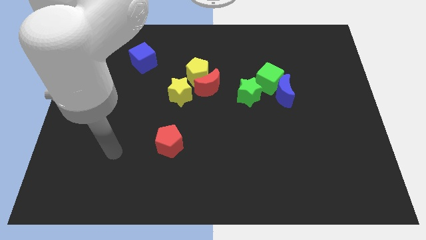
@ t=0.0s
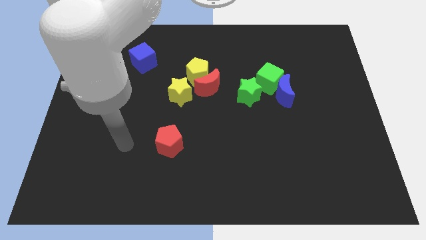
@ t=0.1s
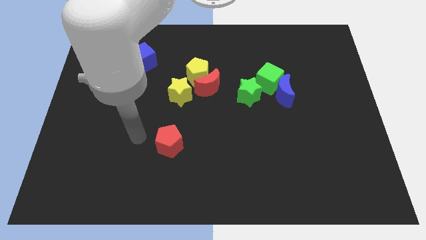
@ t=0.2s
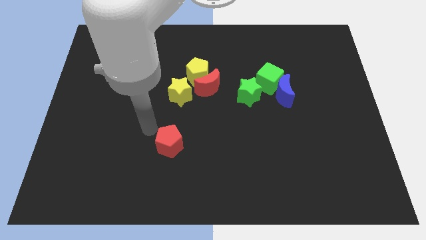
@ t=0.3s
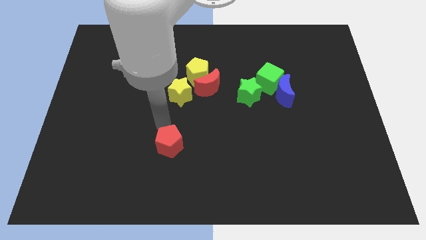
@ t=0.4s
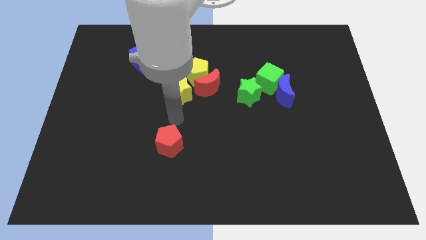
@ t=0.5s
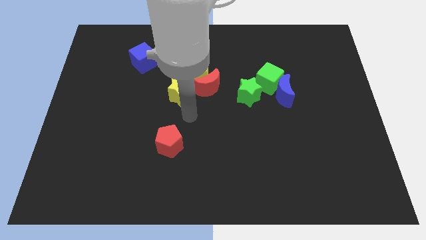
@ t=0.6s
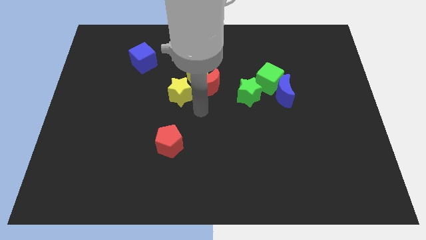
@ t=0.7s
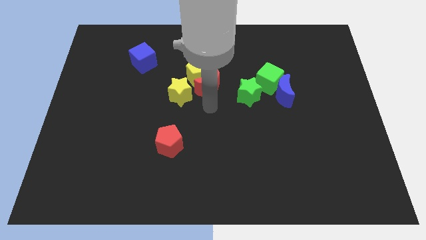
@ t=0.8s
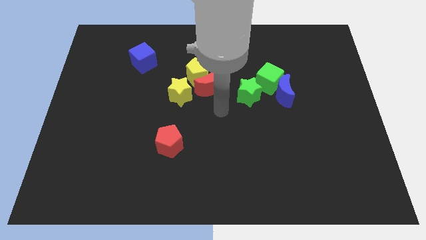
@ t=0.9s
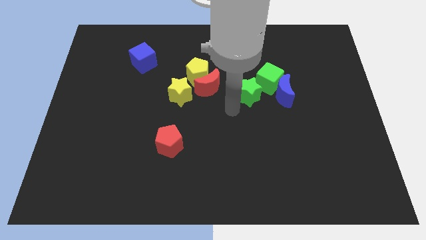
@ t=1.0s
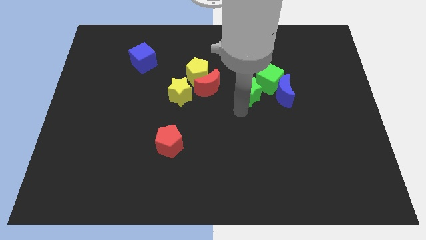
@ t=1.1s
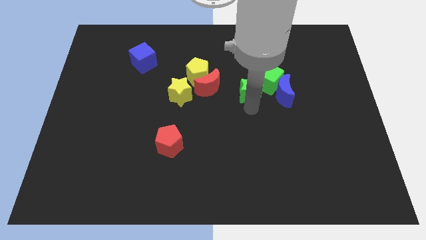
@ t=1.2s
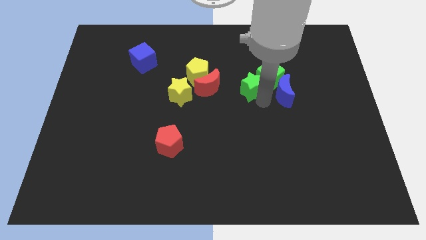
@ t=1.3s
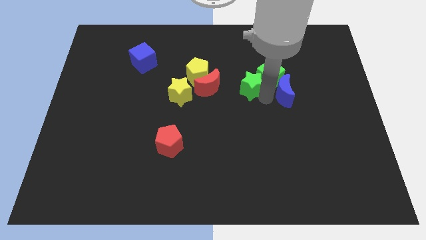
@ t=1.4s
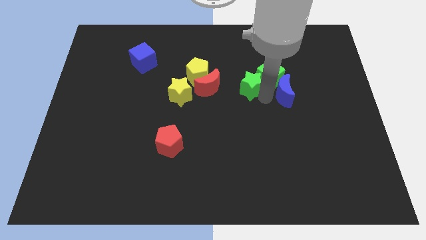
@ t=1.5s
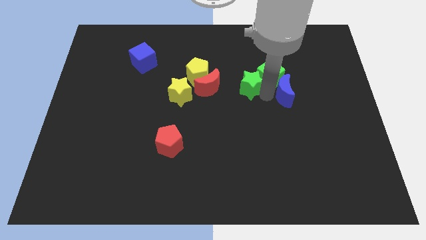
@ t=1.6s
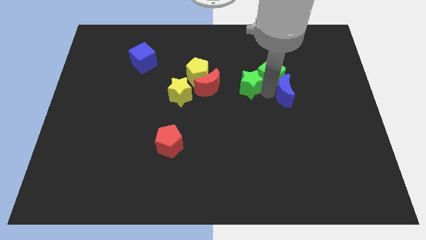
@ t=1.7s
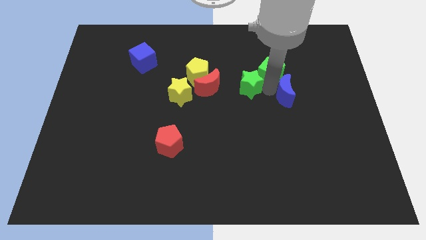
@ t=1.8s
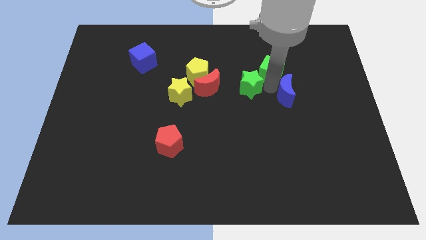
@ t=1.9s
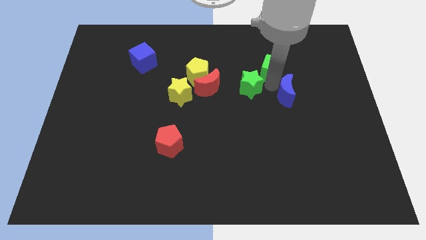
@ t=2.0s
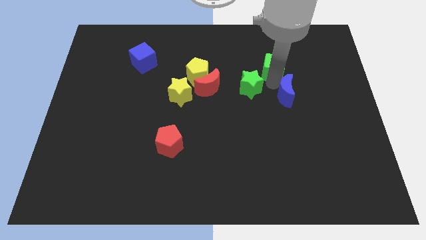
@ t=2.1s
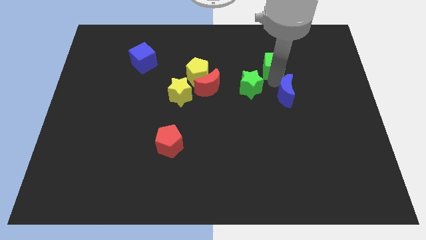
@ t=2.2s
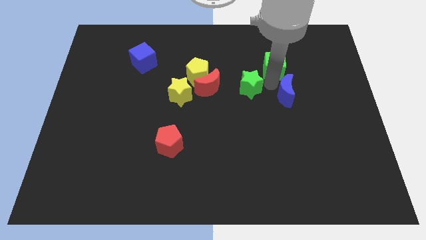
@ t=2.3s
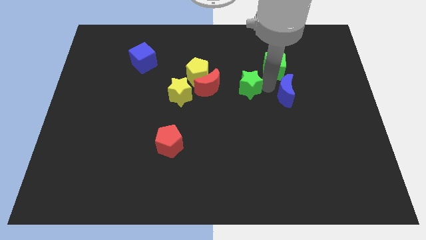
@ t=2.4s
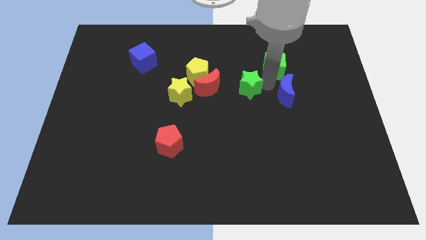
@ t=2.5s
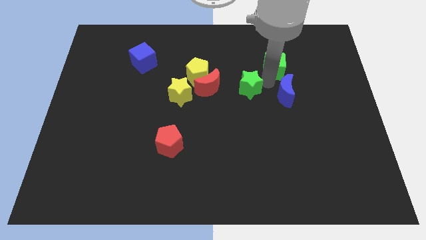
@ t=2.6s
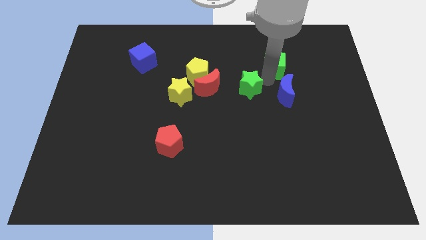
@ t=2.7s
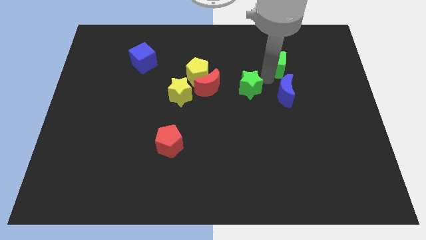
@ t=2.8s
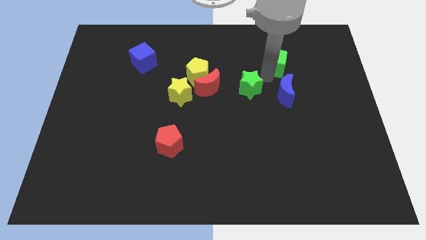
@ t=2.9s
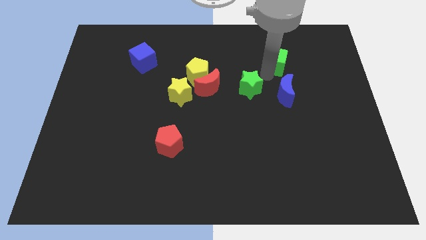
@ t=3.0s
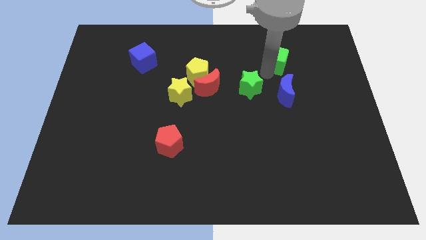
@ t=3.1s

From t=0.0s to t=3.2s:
pull the green cube apart from the blue moon and green star

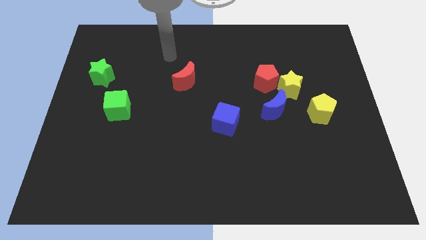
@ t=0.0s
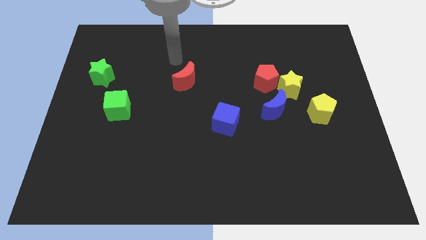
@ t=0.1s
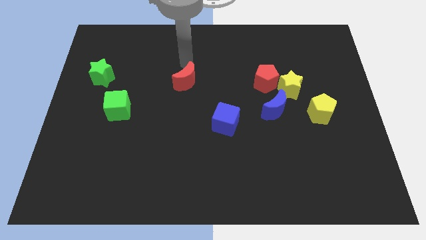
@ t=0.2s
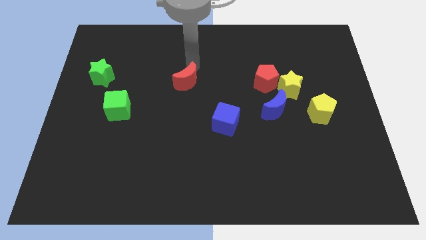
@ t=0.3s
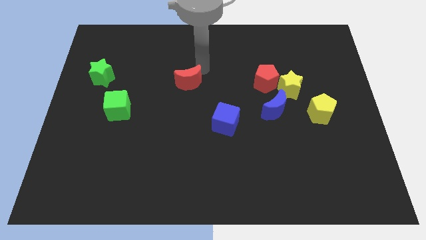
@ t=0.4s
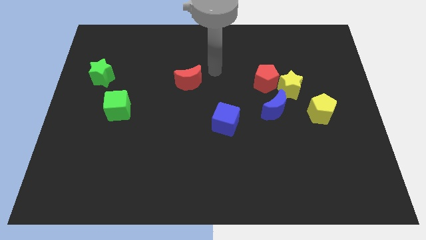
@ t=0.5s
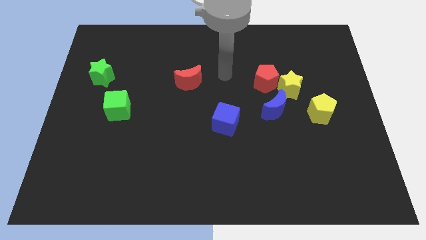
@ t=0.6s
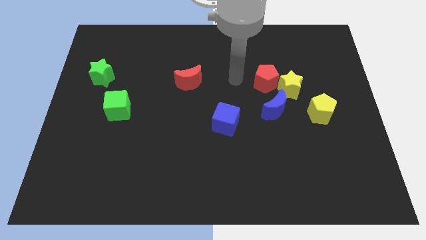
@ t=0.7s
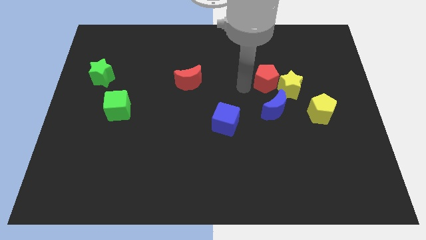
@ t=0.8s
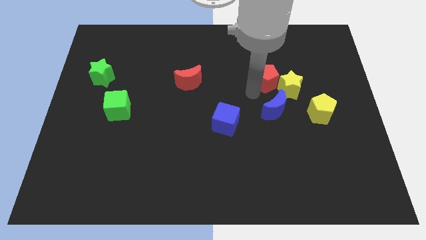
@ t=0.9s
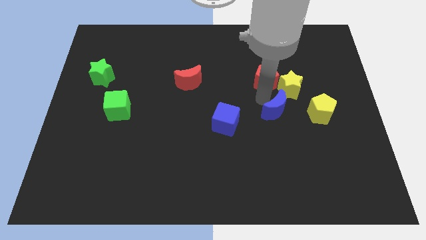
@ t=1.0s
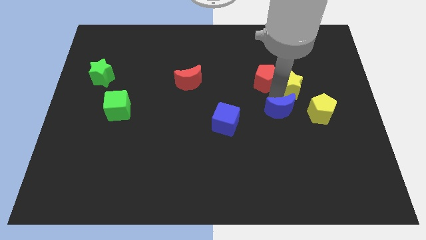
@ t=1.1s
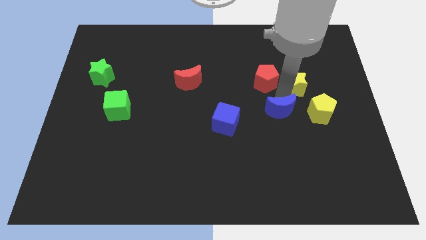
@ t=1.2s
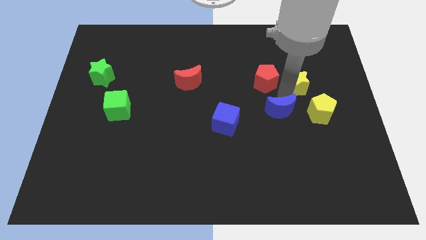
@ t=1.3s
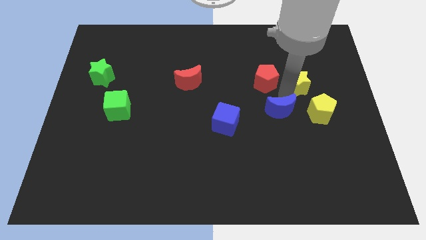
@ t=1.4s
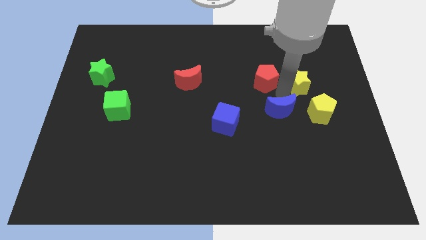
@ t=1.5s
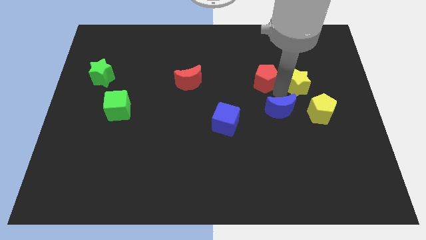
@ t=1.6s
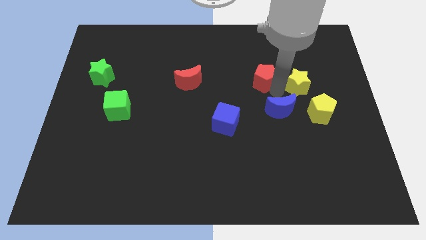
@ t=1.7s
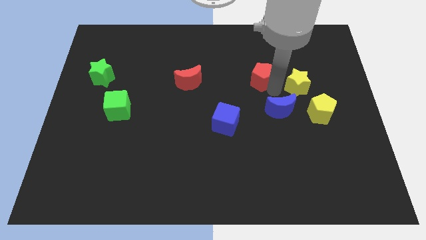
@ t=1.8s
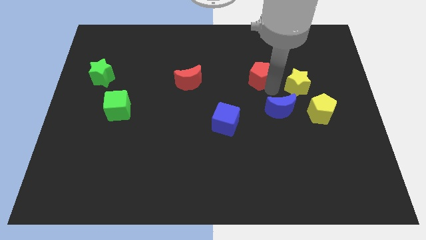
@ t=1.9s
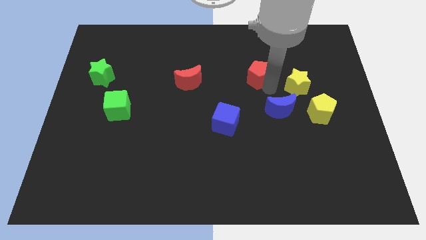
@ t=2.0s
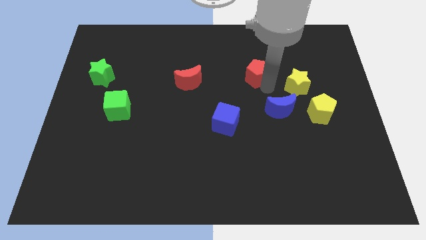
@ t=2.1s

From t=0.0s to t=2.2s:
pull the red pentagon apart from the yellow star and blue moon

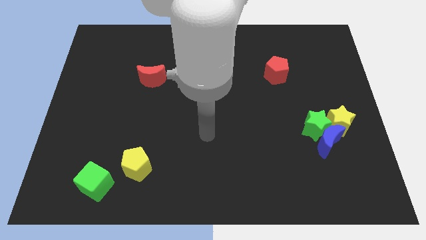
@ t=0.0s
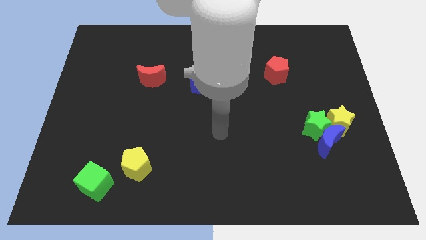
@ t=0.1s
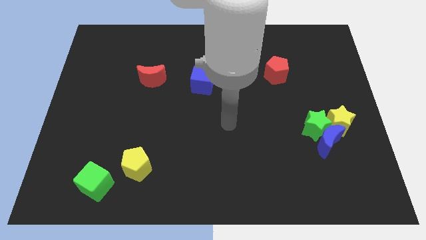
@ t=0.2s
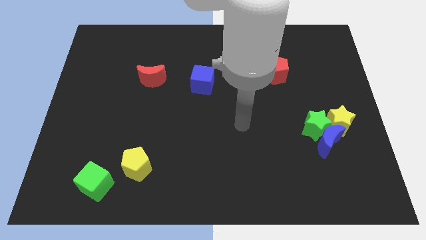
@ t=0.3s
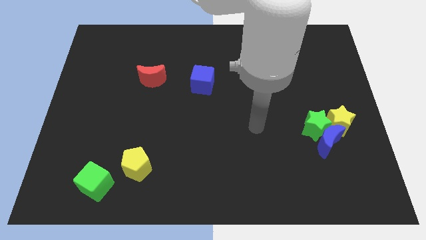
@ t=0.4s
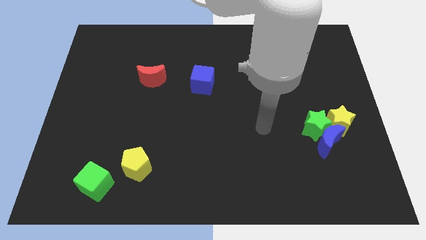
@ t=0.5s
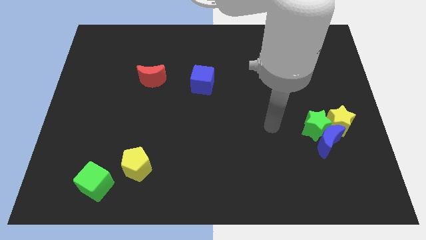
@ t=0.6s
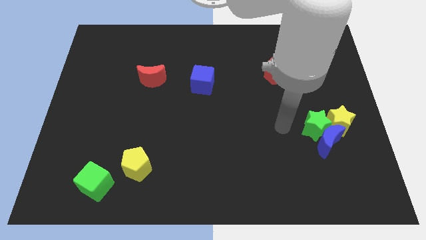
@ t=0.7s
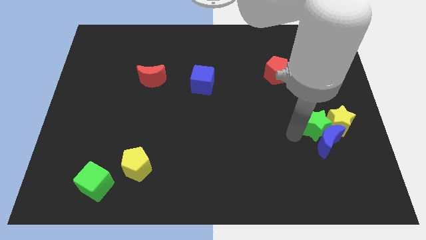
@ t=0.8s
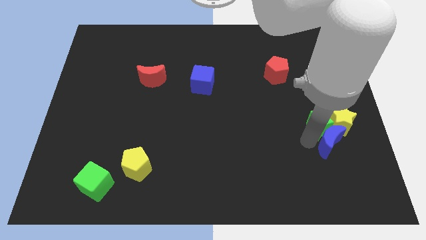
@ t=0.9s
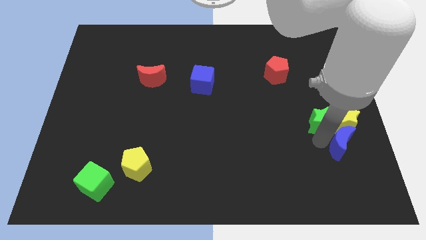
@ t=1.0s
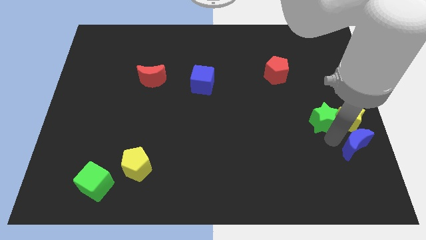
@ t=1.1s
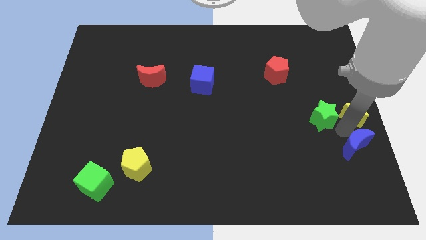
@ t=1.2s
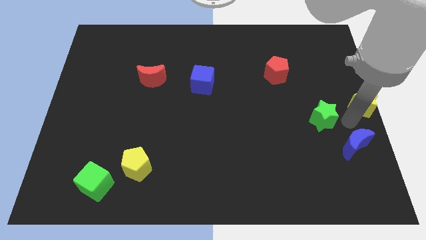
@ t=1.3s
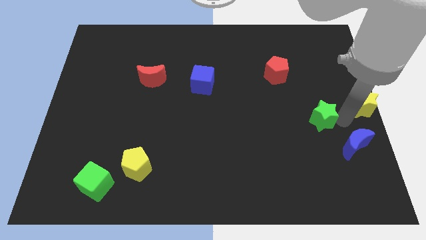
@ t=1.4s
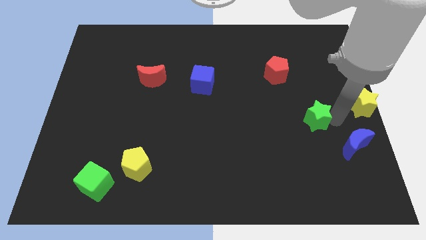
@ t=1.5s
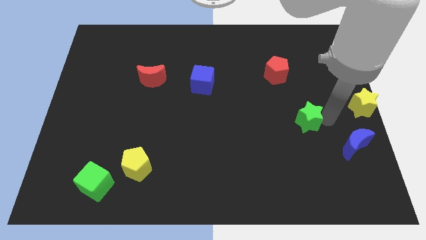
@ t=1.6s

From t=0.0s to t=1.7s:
move the green star away from the blue moon and yellow star

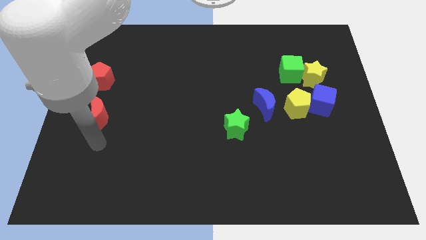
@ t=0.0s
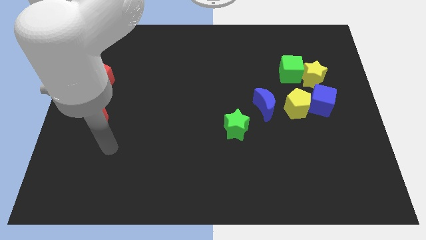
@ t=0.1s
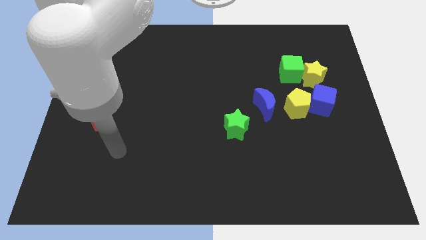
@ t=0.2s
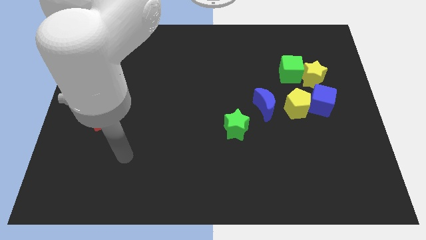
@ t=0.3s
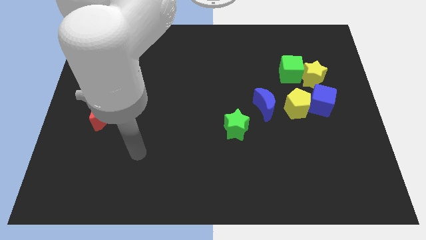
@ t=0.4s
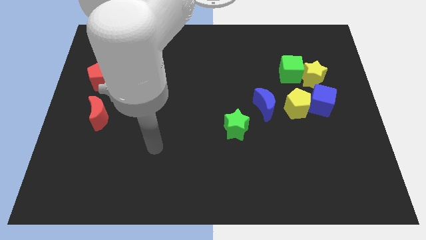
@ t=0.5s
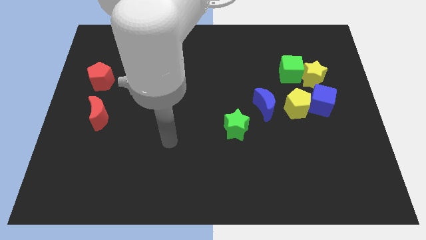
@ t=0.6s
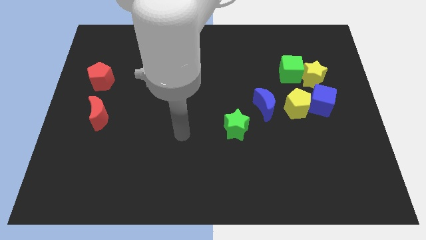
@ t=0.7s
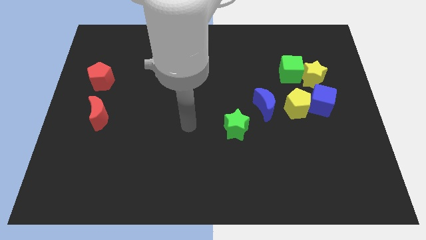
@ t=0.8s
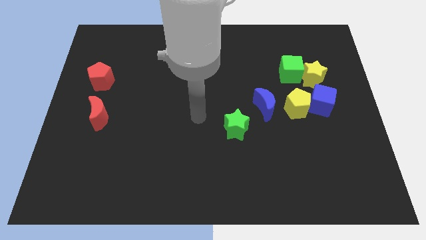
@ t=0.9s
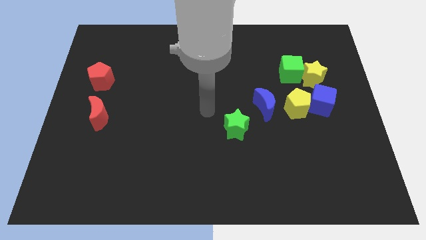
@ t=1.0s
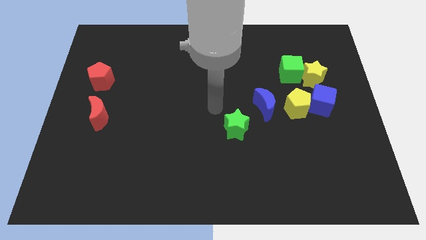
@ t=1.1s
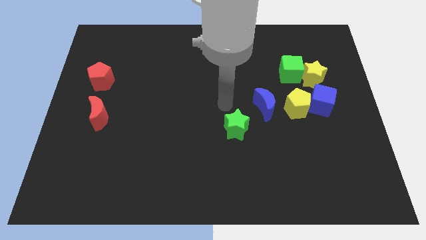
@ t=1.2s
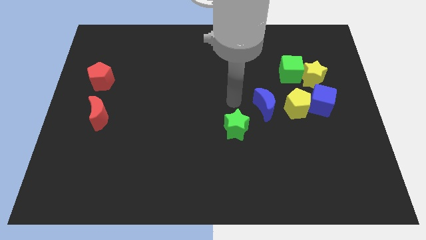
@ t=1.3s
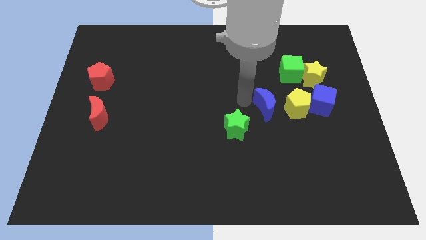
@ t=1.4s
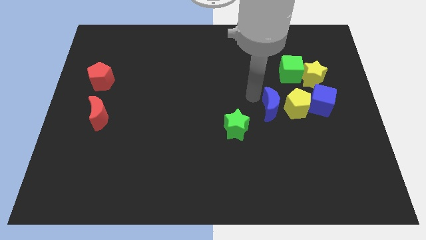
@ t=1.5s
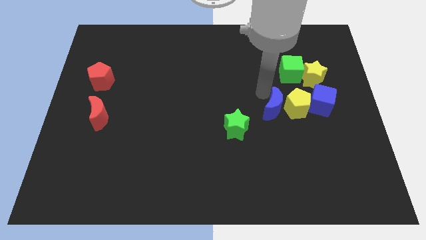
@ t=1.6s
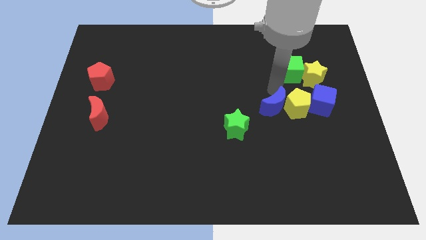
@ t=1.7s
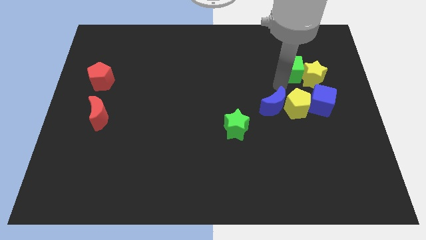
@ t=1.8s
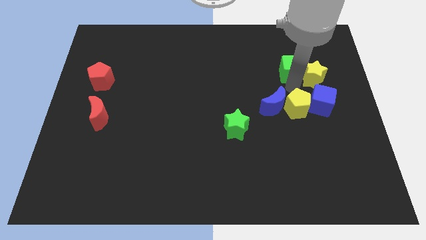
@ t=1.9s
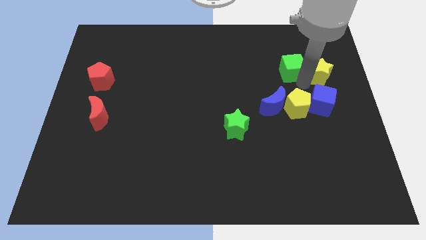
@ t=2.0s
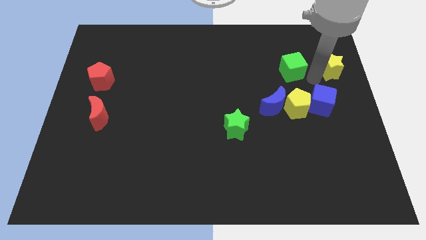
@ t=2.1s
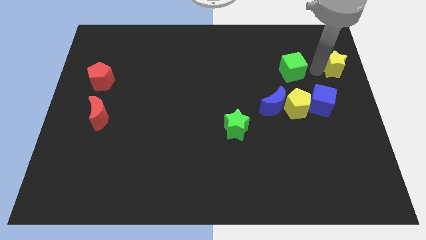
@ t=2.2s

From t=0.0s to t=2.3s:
pull the green cube apart from the yellow star
